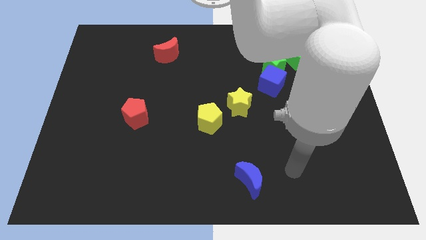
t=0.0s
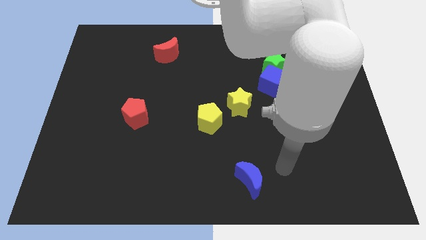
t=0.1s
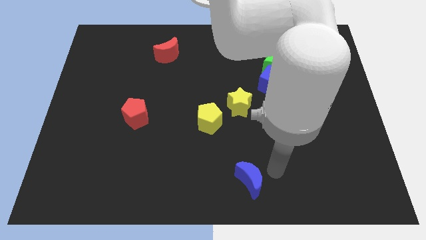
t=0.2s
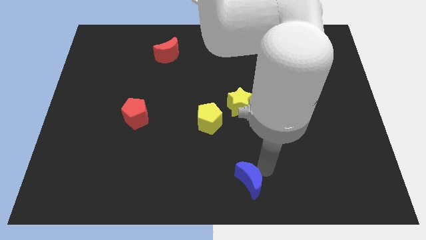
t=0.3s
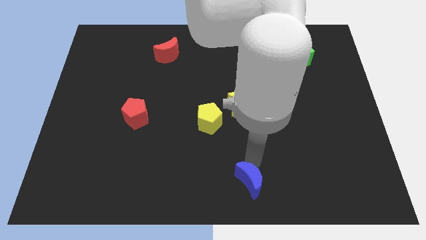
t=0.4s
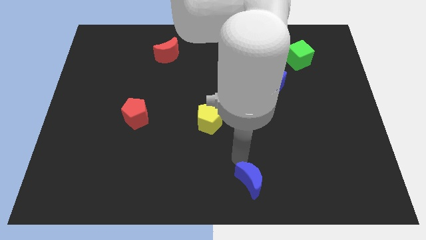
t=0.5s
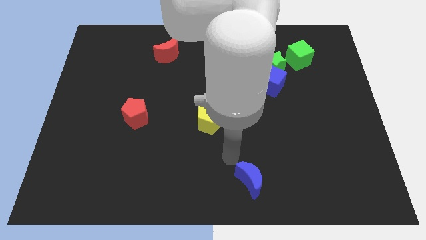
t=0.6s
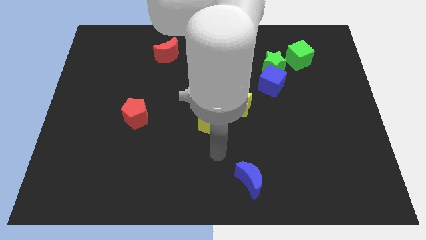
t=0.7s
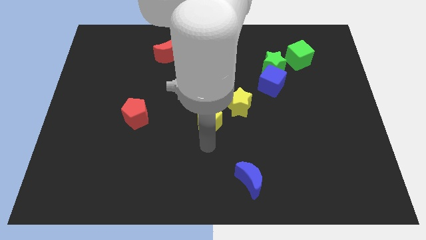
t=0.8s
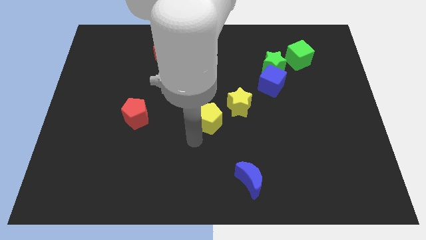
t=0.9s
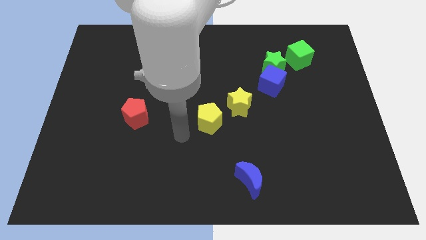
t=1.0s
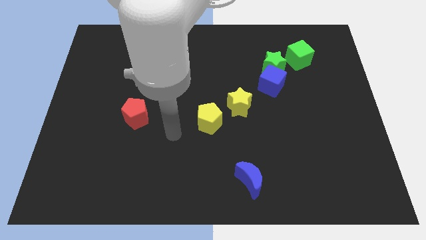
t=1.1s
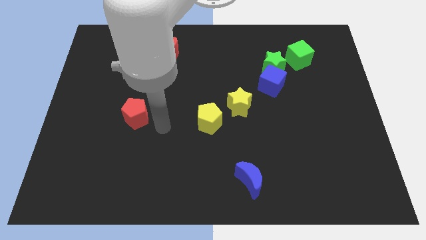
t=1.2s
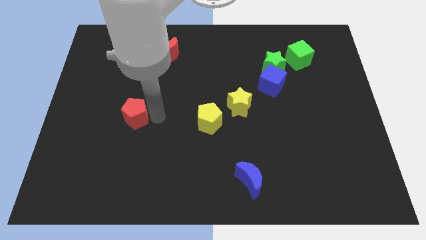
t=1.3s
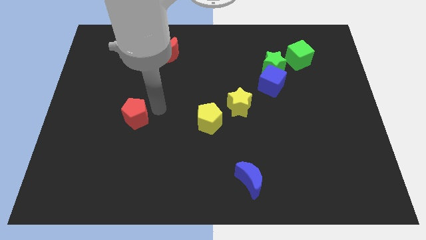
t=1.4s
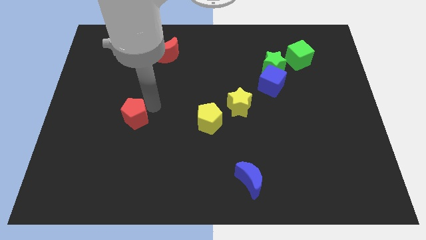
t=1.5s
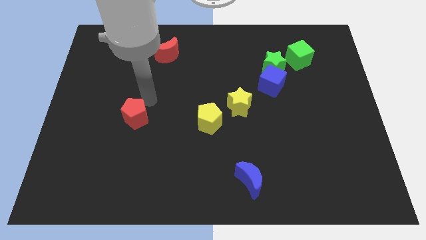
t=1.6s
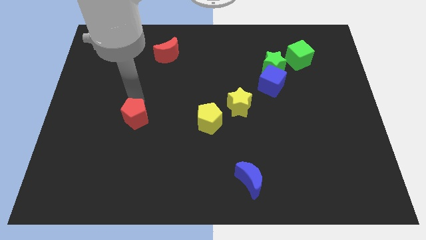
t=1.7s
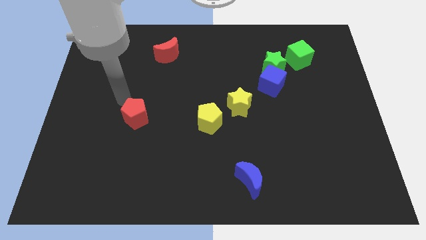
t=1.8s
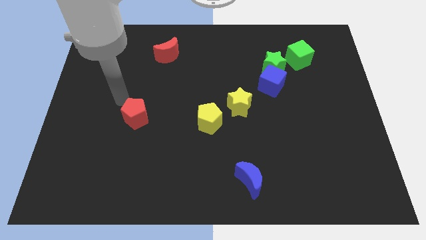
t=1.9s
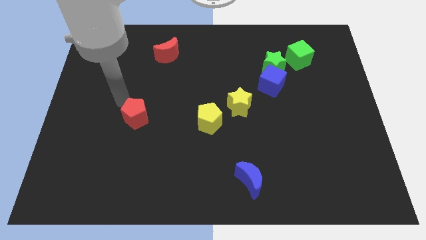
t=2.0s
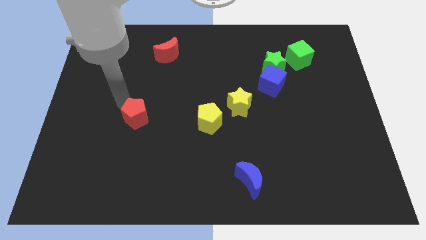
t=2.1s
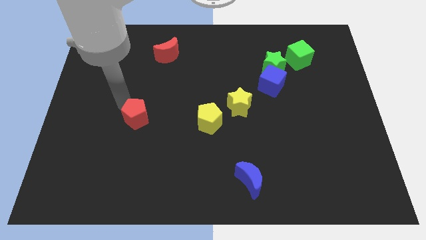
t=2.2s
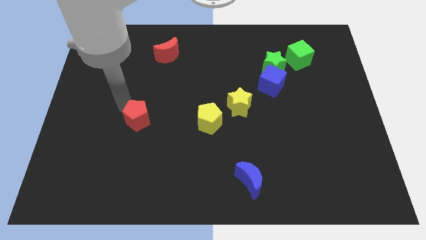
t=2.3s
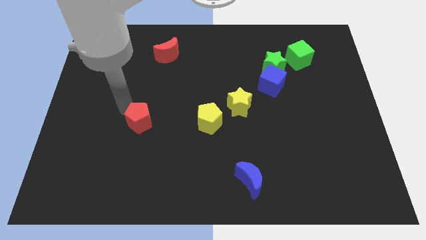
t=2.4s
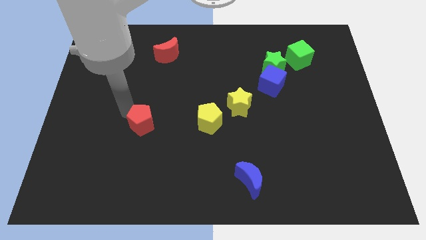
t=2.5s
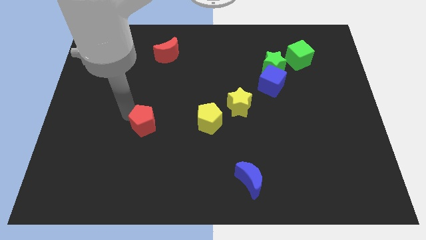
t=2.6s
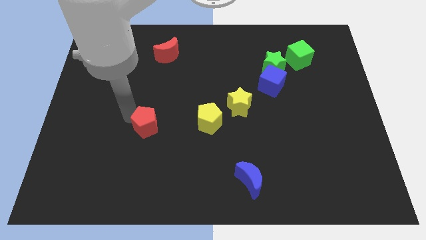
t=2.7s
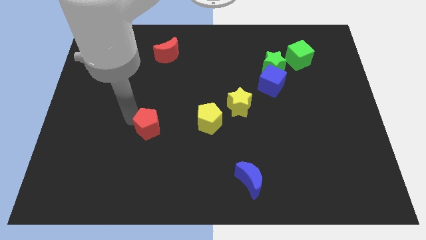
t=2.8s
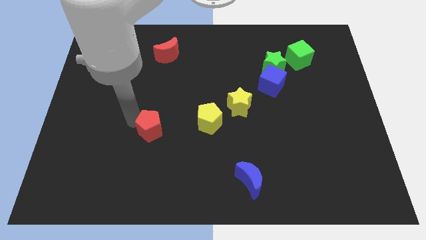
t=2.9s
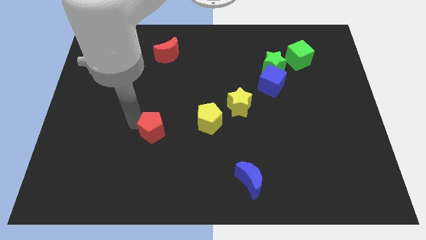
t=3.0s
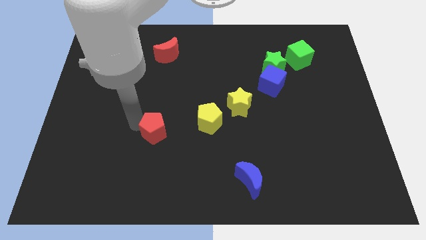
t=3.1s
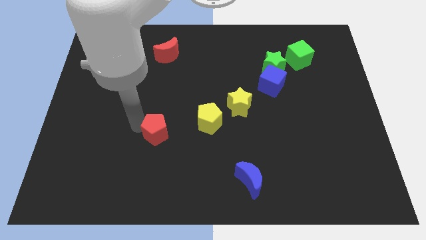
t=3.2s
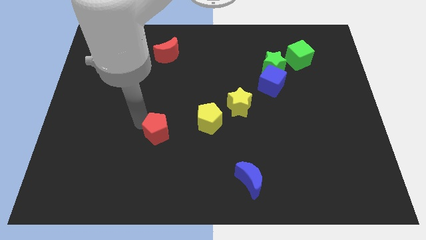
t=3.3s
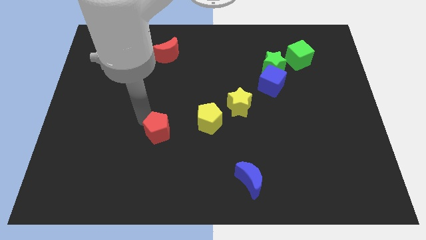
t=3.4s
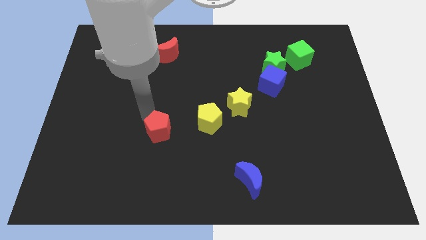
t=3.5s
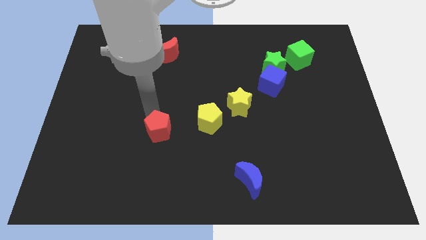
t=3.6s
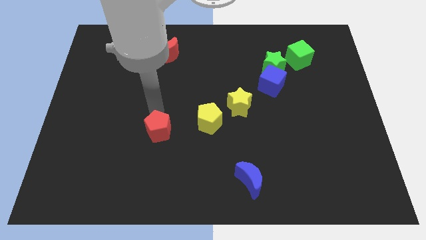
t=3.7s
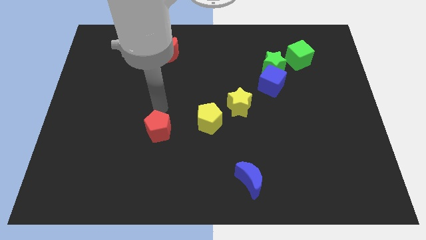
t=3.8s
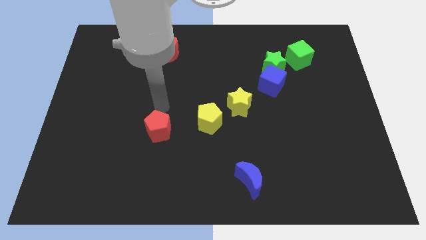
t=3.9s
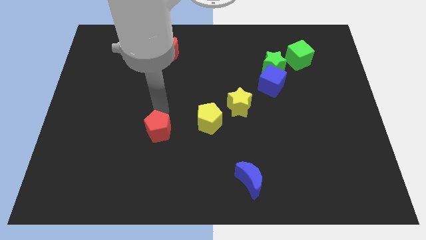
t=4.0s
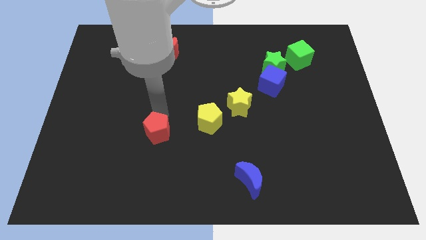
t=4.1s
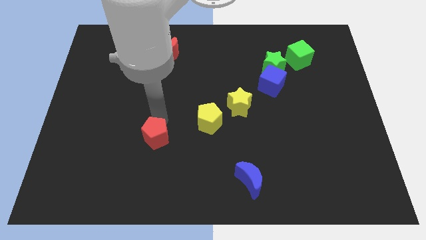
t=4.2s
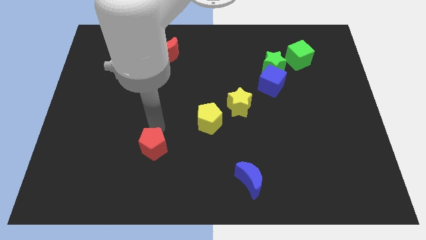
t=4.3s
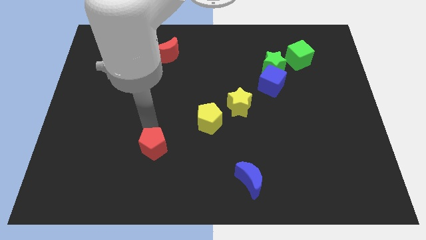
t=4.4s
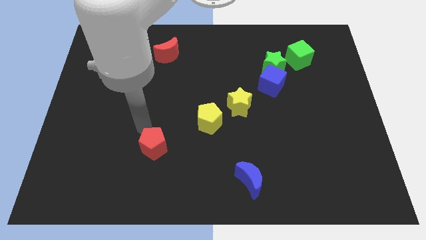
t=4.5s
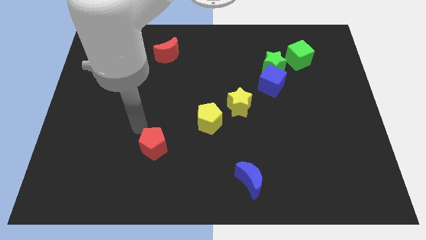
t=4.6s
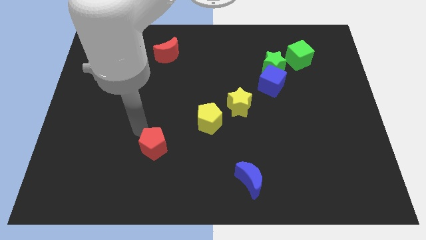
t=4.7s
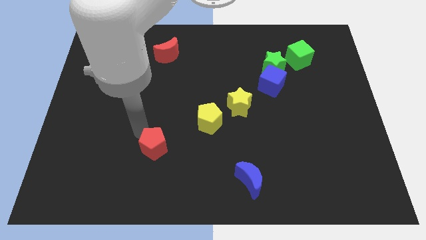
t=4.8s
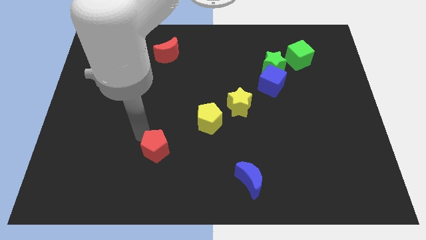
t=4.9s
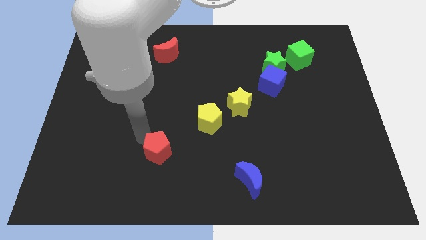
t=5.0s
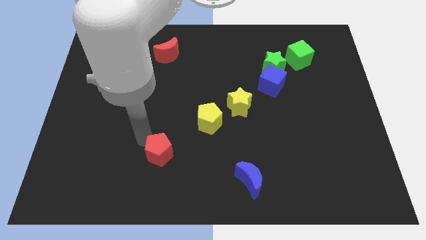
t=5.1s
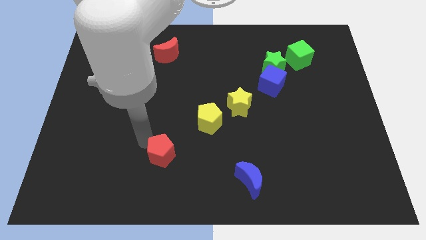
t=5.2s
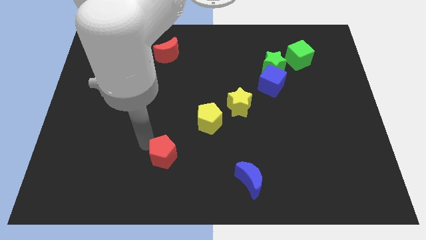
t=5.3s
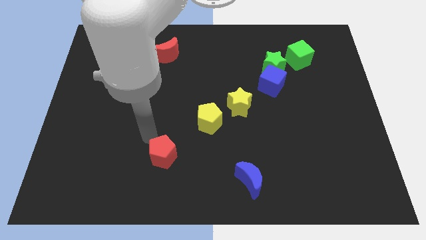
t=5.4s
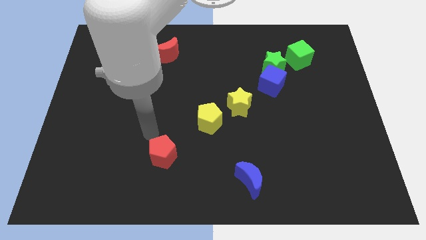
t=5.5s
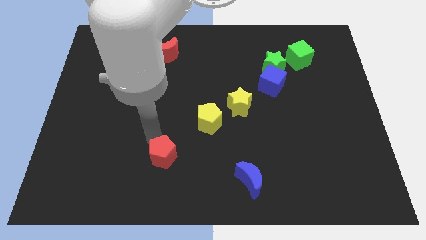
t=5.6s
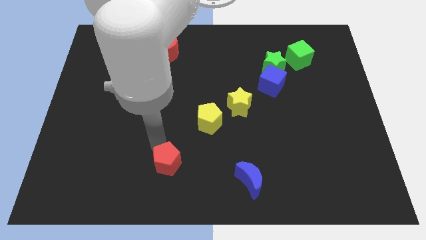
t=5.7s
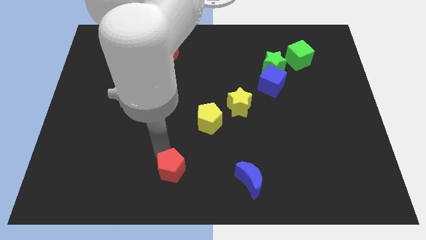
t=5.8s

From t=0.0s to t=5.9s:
move the red pentagon to the bottom side

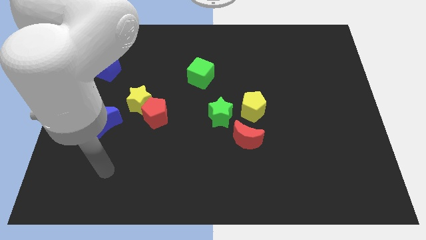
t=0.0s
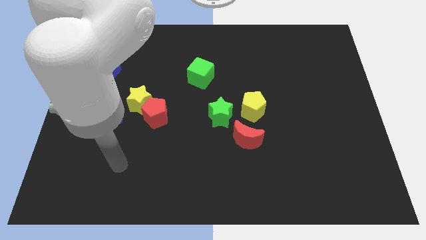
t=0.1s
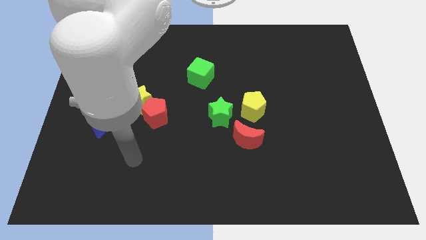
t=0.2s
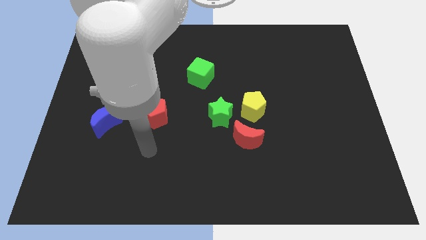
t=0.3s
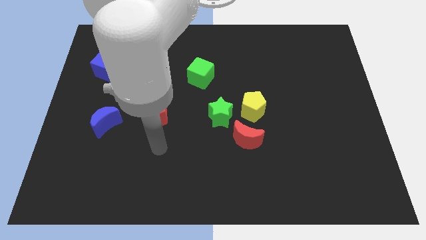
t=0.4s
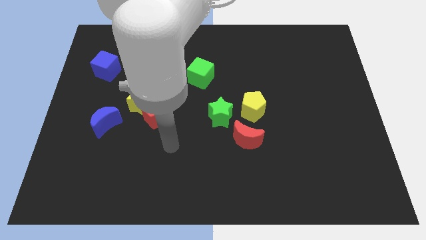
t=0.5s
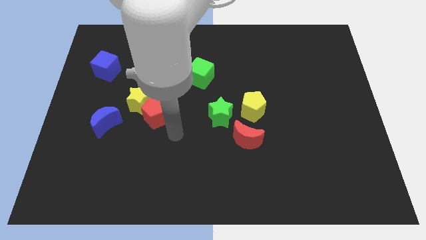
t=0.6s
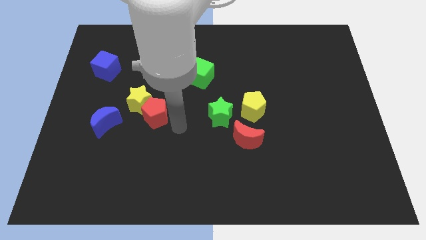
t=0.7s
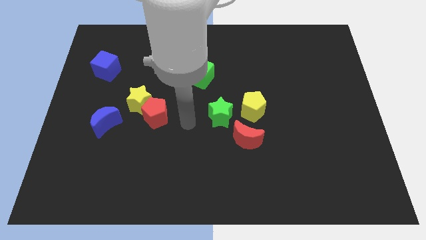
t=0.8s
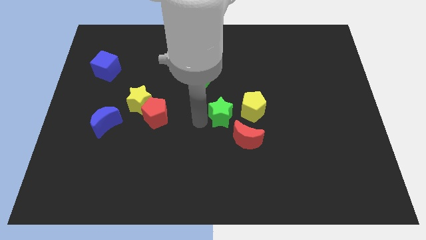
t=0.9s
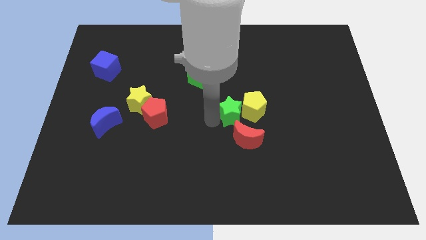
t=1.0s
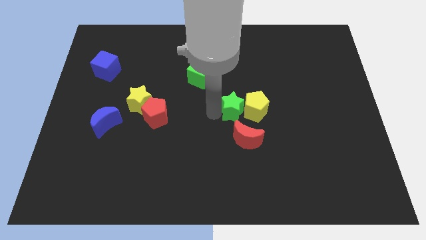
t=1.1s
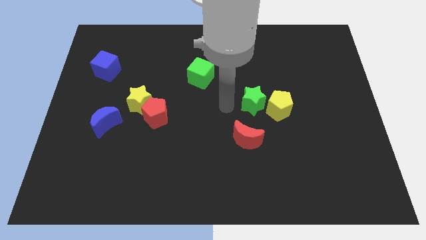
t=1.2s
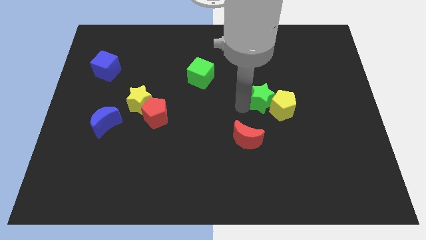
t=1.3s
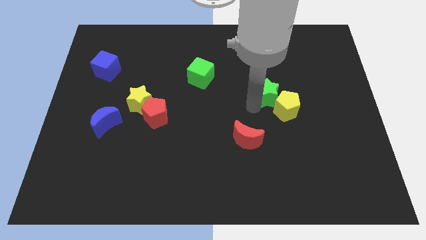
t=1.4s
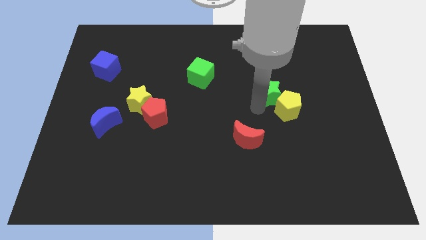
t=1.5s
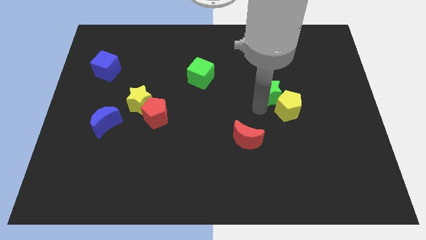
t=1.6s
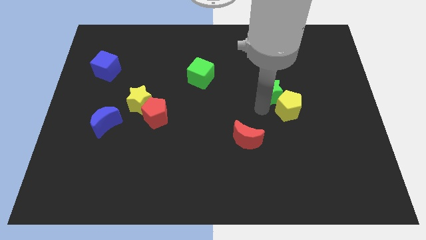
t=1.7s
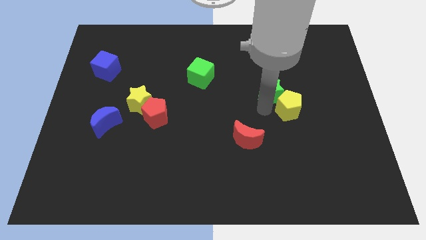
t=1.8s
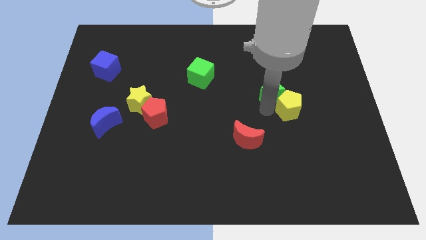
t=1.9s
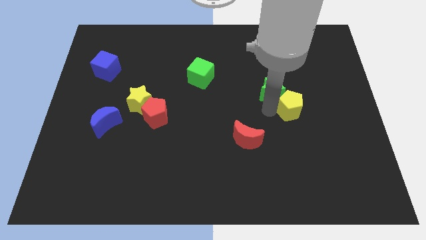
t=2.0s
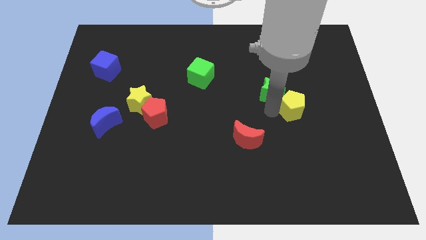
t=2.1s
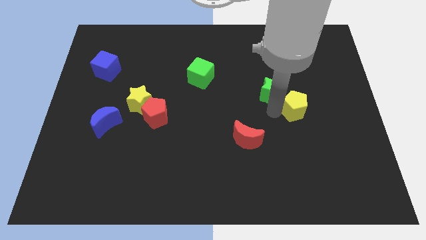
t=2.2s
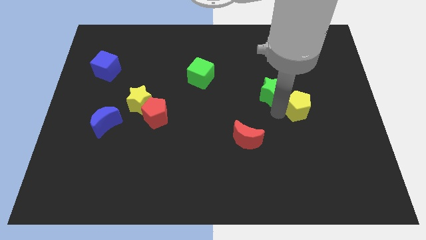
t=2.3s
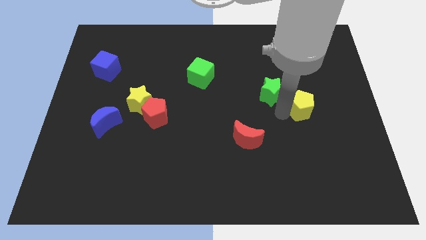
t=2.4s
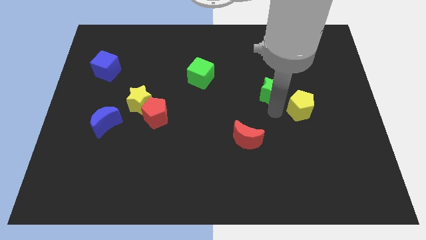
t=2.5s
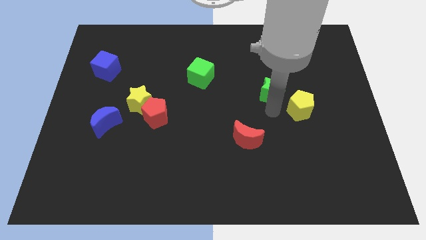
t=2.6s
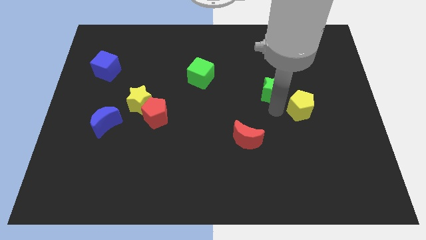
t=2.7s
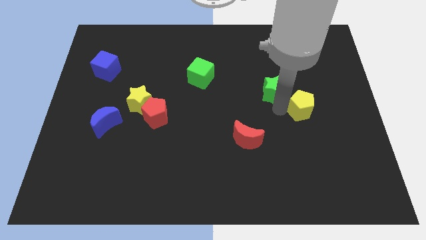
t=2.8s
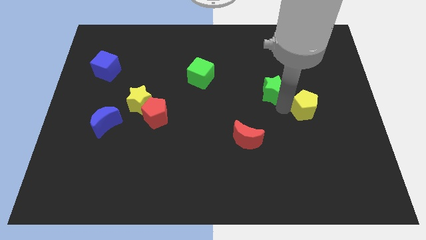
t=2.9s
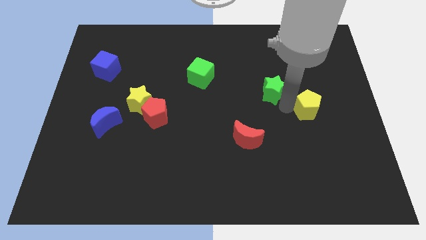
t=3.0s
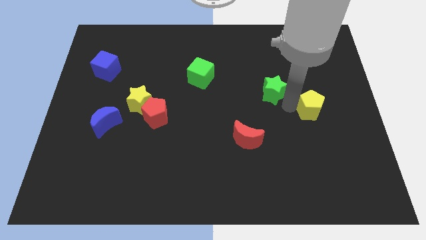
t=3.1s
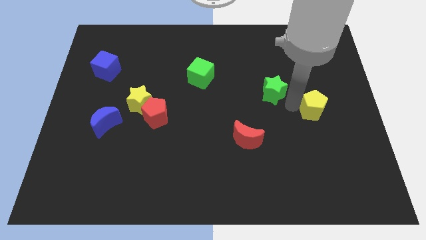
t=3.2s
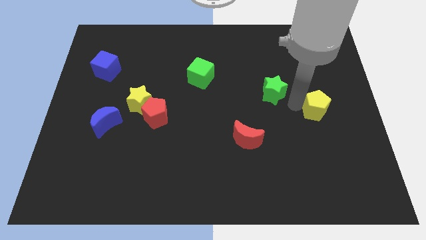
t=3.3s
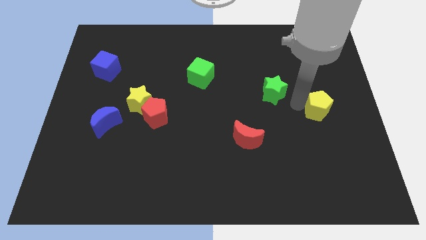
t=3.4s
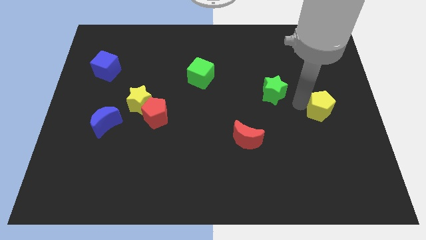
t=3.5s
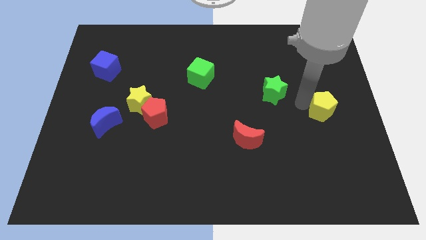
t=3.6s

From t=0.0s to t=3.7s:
push the yellow pentagon to the right side
